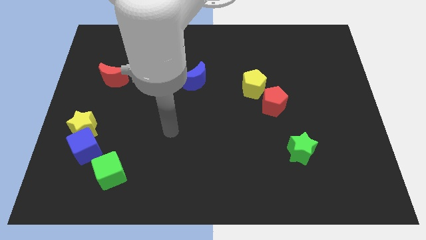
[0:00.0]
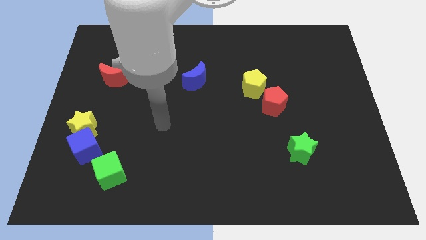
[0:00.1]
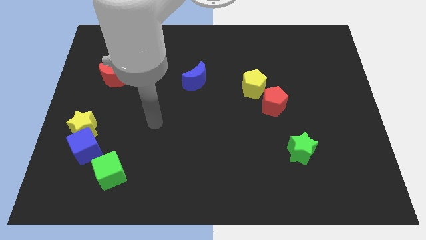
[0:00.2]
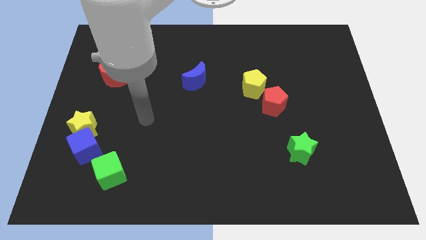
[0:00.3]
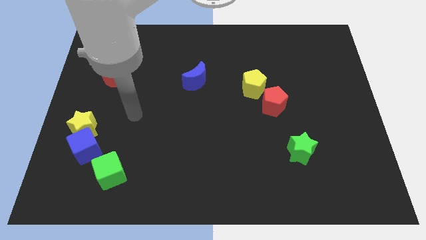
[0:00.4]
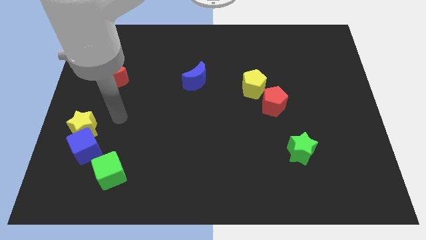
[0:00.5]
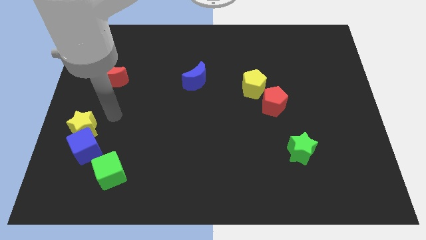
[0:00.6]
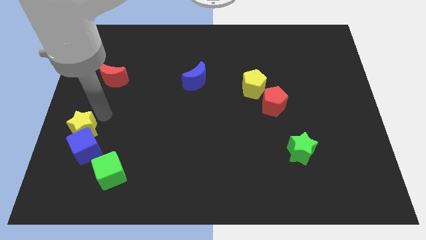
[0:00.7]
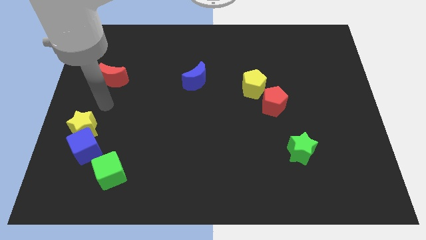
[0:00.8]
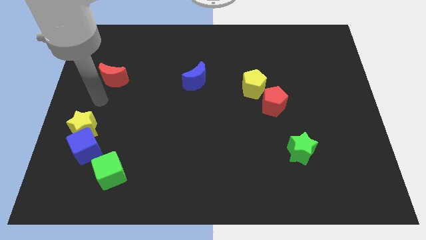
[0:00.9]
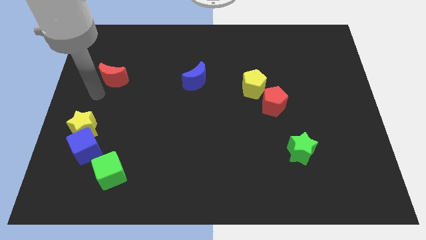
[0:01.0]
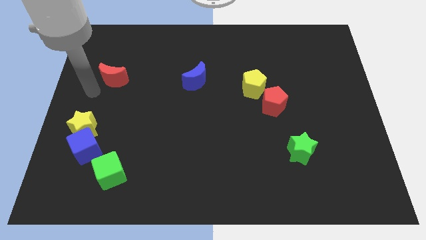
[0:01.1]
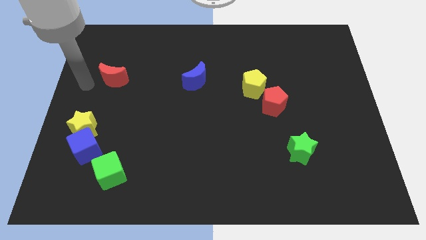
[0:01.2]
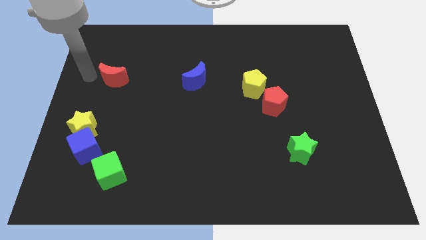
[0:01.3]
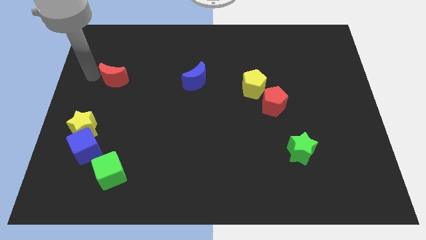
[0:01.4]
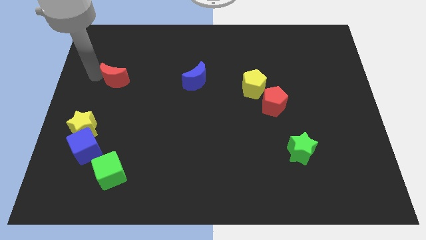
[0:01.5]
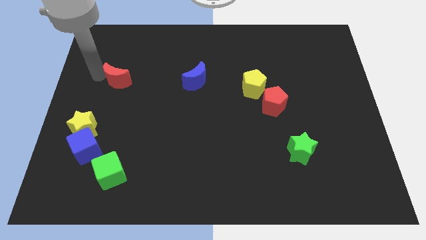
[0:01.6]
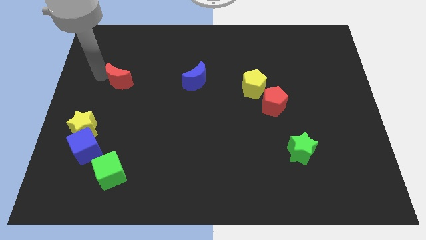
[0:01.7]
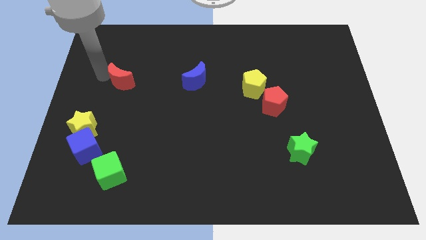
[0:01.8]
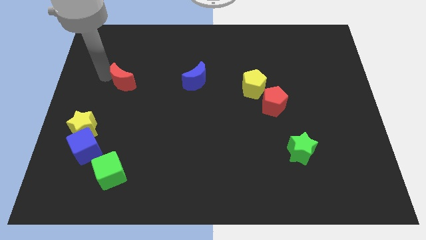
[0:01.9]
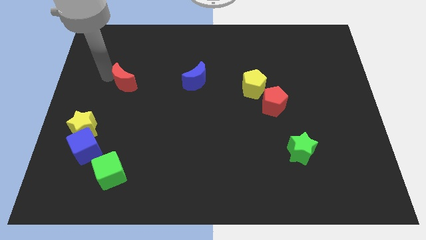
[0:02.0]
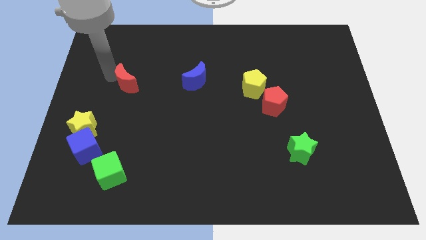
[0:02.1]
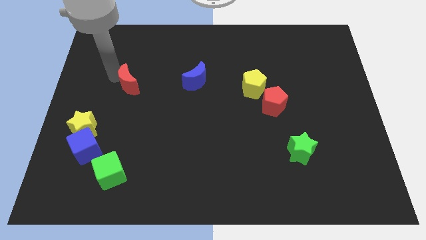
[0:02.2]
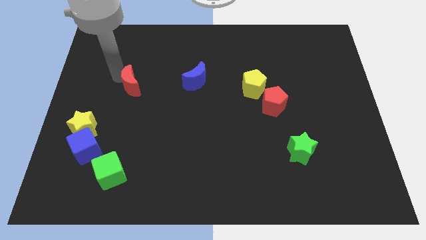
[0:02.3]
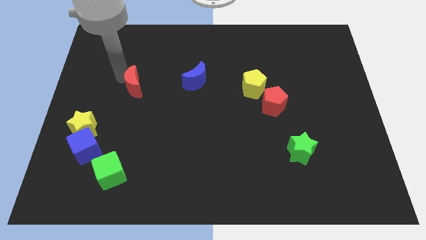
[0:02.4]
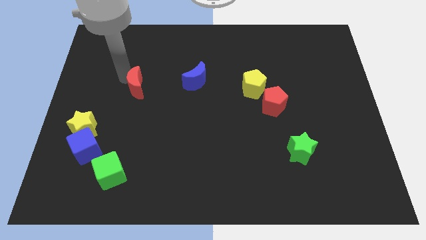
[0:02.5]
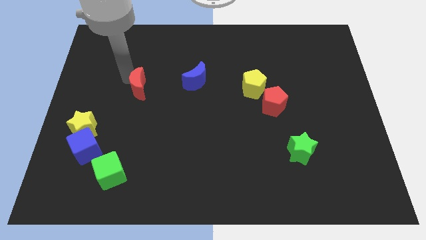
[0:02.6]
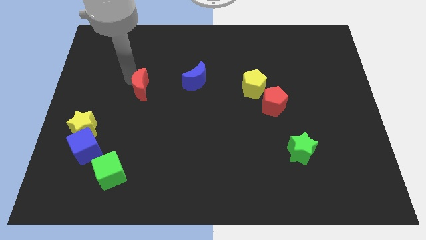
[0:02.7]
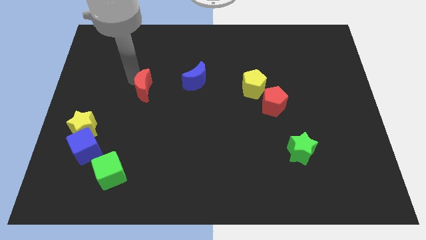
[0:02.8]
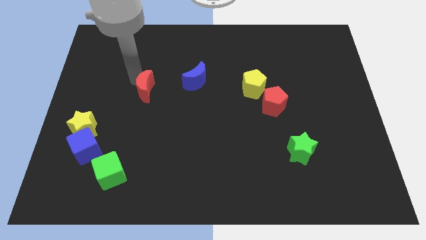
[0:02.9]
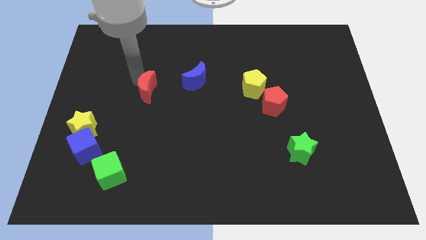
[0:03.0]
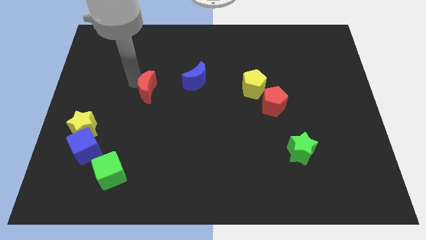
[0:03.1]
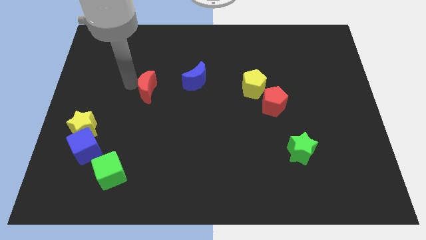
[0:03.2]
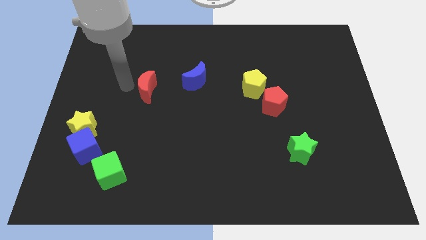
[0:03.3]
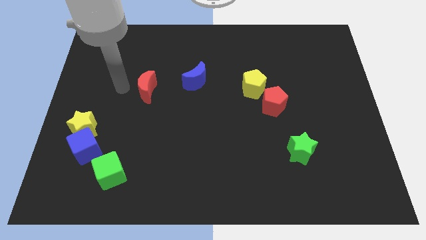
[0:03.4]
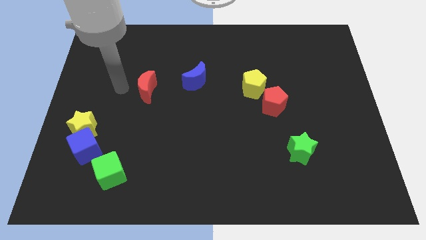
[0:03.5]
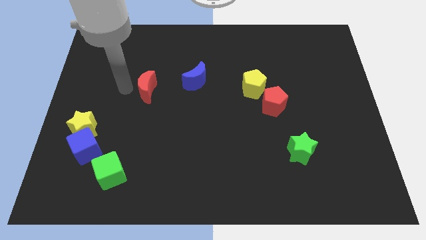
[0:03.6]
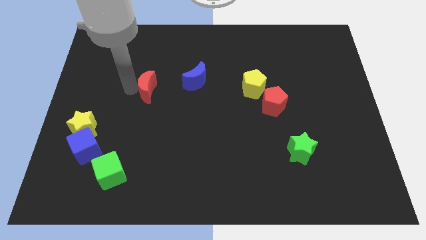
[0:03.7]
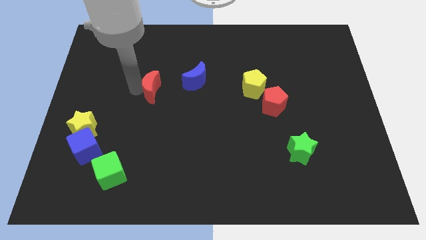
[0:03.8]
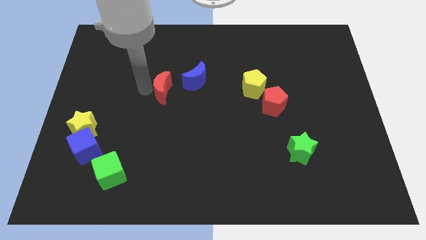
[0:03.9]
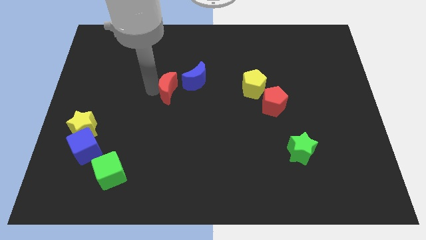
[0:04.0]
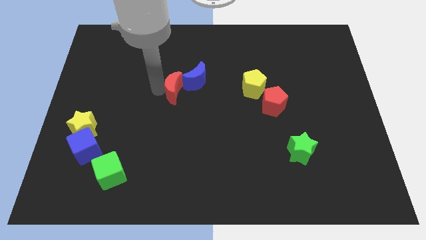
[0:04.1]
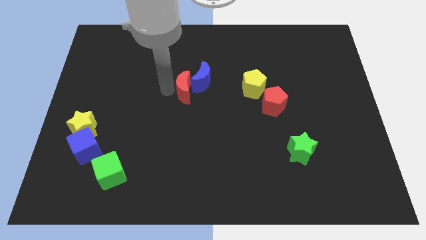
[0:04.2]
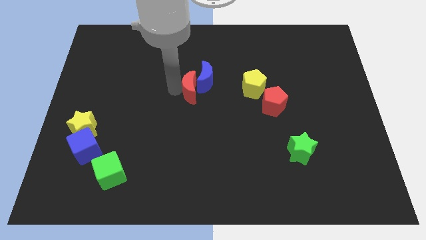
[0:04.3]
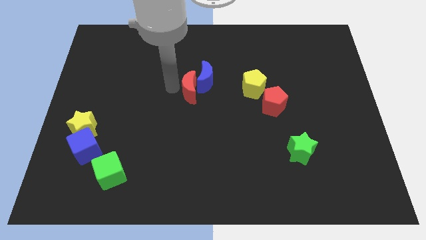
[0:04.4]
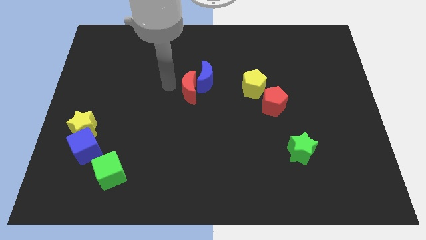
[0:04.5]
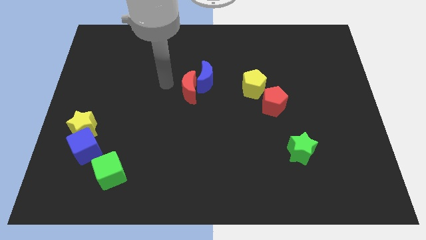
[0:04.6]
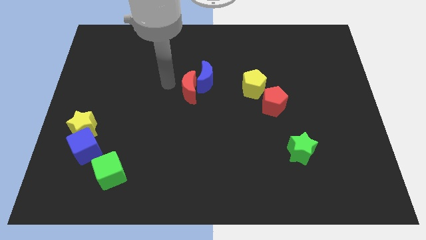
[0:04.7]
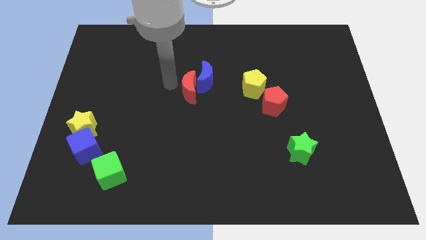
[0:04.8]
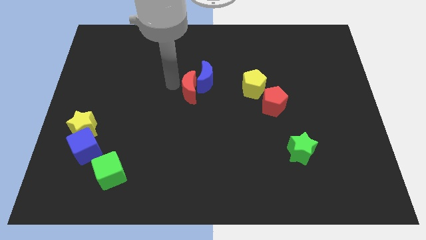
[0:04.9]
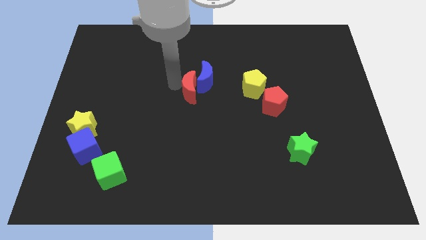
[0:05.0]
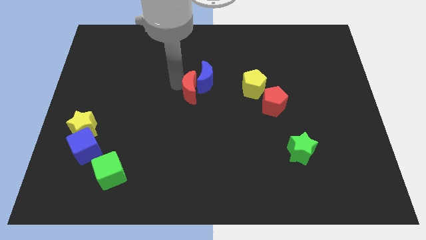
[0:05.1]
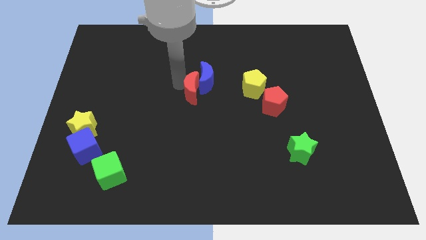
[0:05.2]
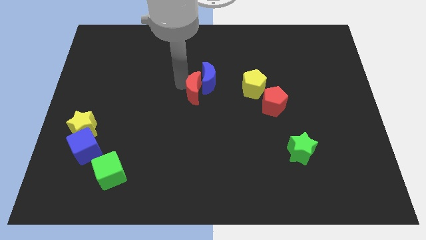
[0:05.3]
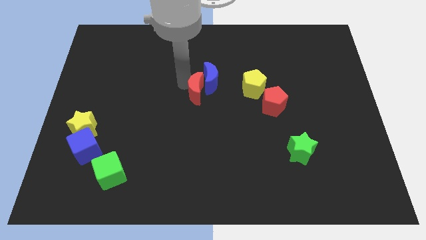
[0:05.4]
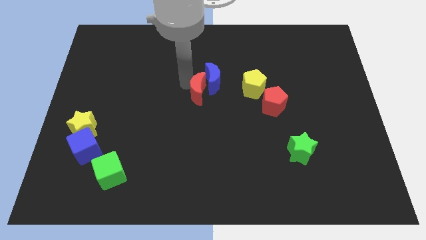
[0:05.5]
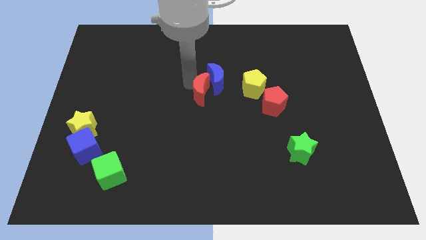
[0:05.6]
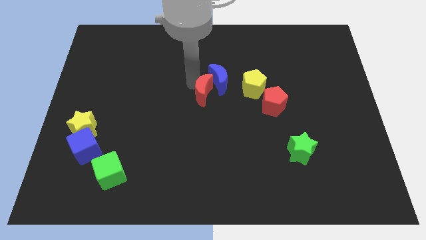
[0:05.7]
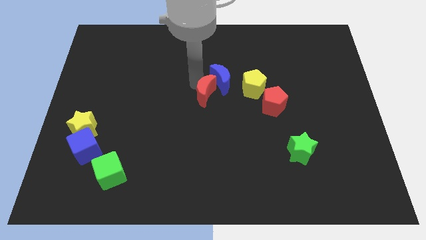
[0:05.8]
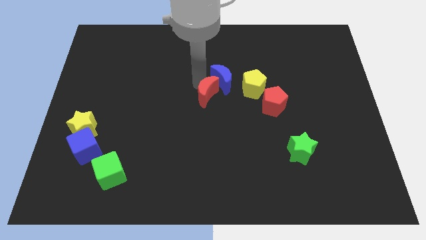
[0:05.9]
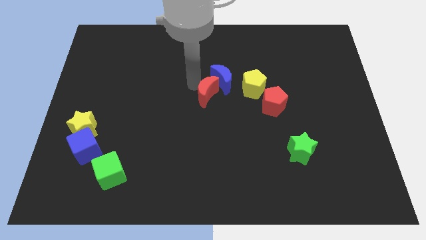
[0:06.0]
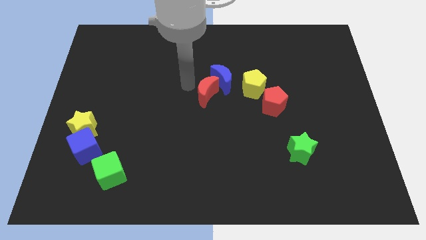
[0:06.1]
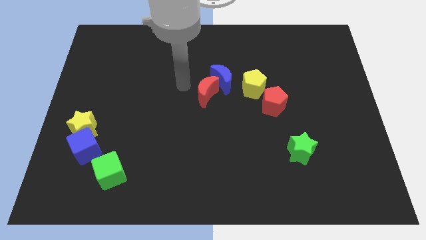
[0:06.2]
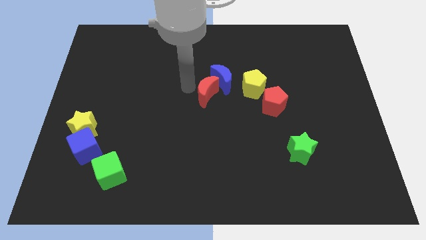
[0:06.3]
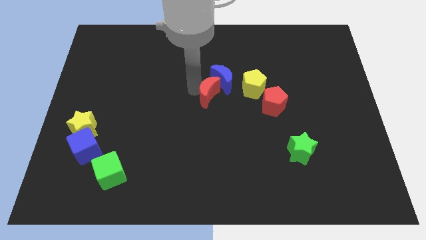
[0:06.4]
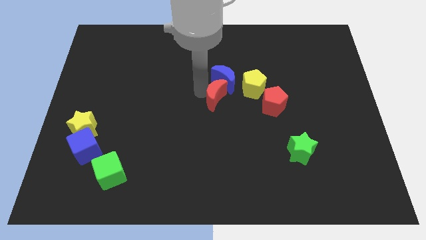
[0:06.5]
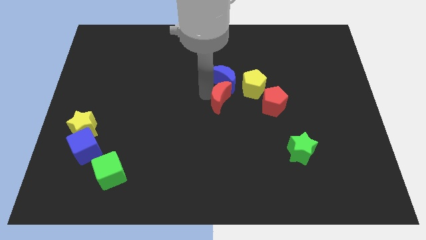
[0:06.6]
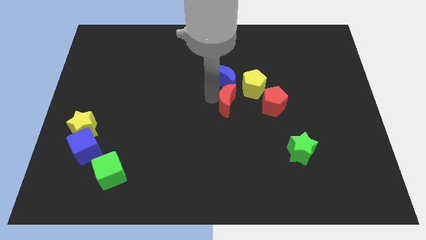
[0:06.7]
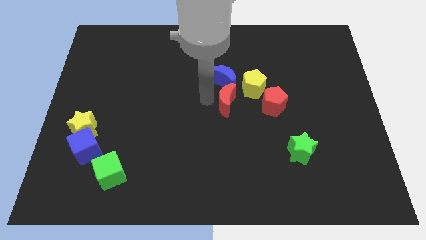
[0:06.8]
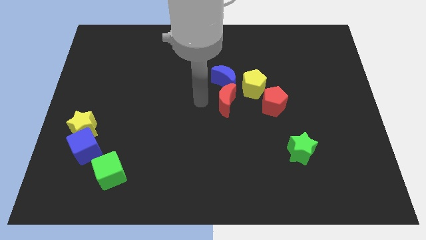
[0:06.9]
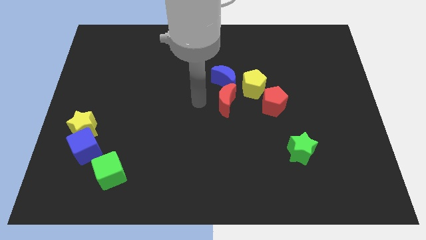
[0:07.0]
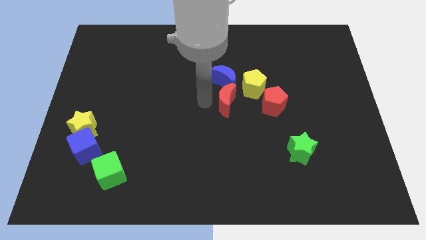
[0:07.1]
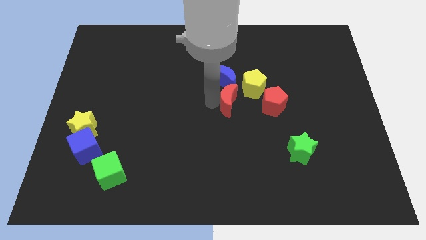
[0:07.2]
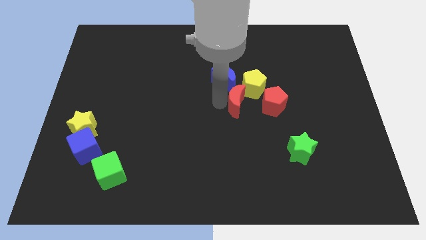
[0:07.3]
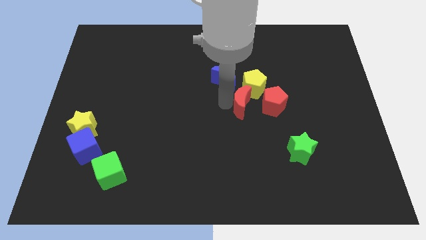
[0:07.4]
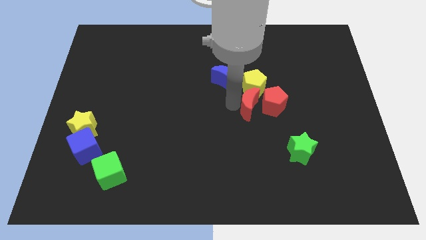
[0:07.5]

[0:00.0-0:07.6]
move the red moon towards the red pentagon
